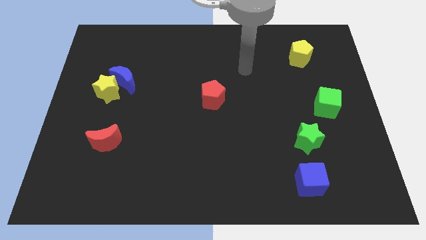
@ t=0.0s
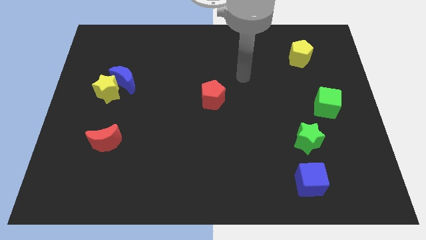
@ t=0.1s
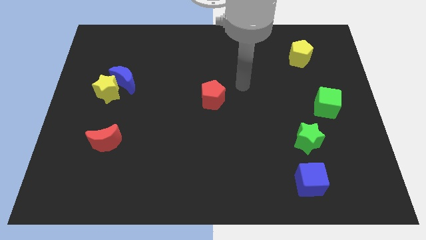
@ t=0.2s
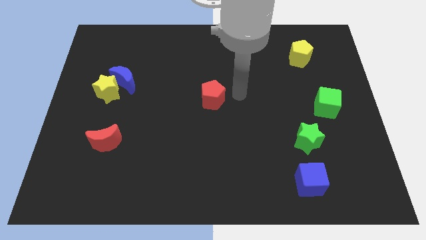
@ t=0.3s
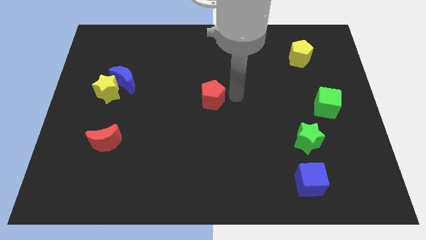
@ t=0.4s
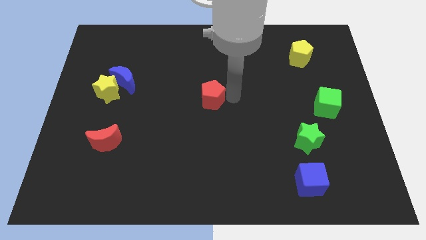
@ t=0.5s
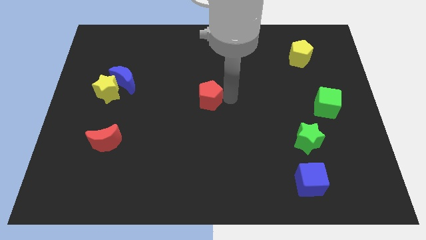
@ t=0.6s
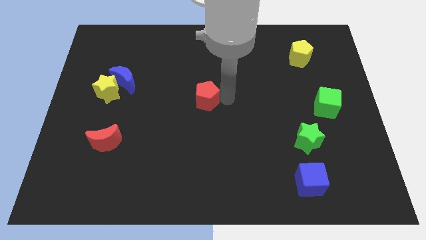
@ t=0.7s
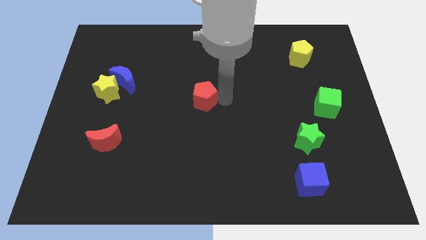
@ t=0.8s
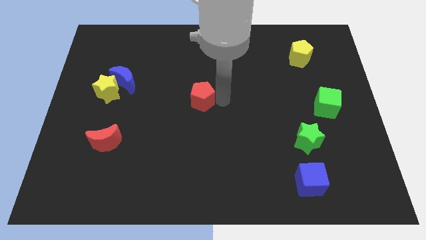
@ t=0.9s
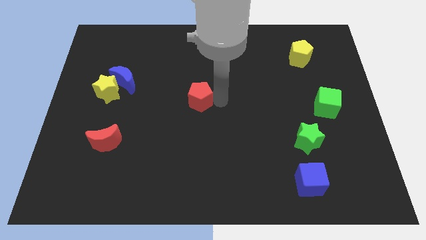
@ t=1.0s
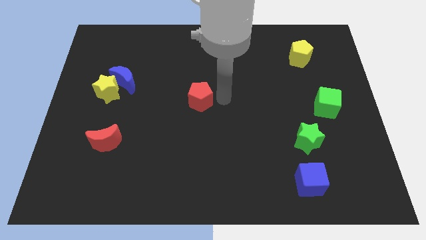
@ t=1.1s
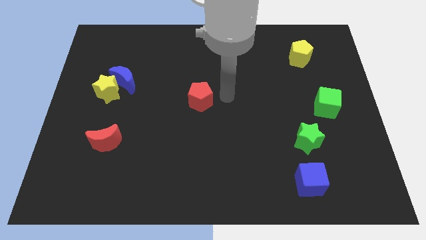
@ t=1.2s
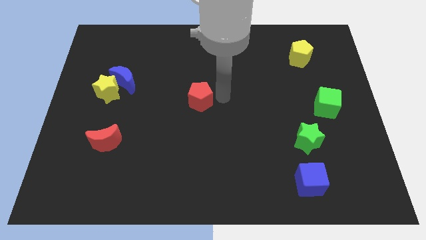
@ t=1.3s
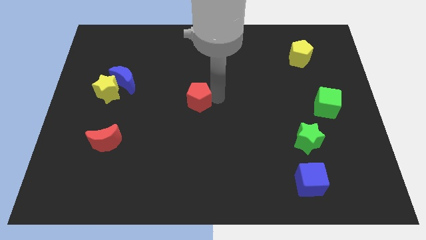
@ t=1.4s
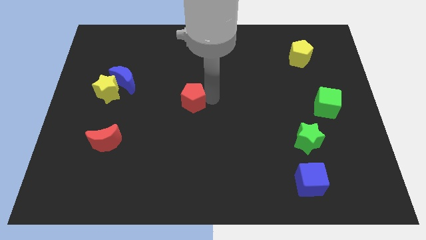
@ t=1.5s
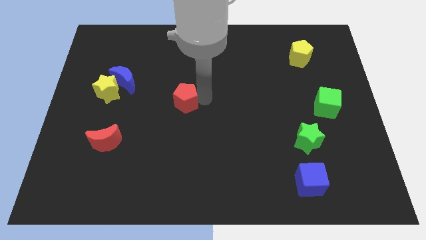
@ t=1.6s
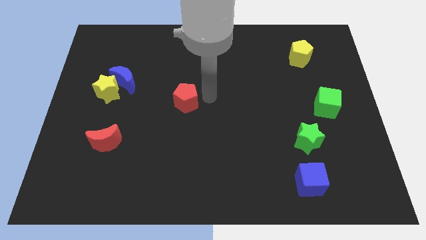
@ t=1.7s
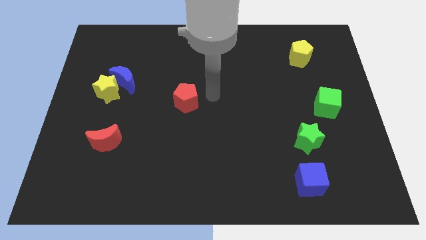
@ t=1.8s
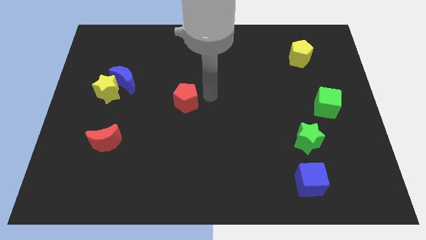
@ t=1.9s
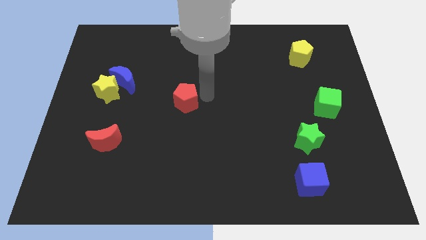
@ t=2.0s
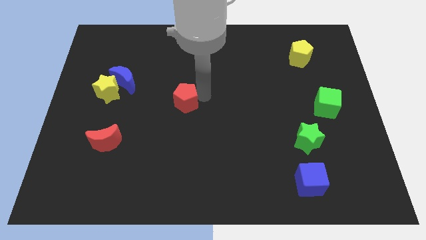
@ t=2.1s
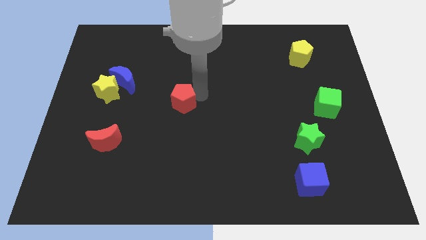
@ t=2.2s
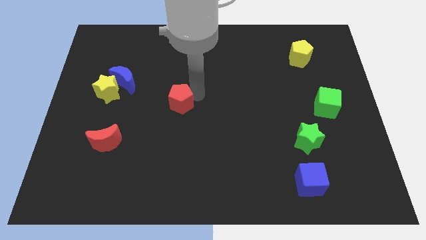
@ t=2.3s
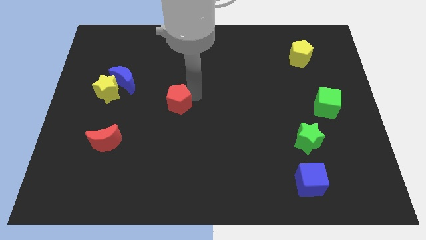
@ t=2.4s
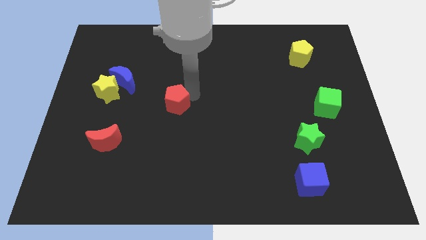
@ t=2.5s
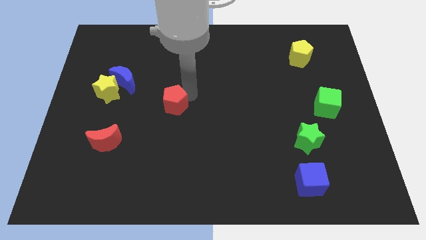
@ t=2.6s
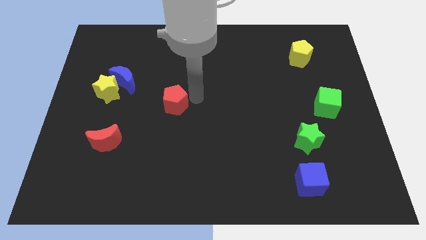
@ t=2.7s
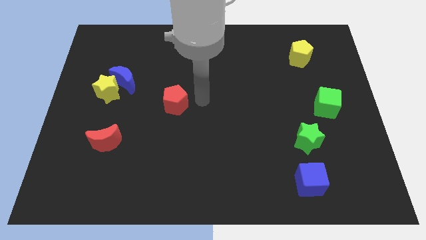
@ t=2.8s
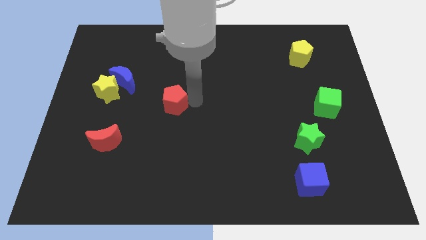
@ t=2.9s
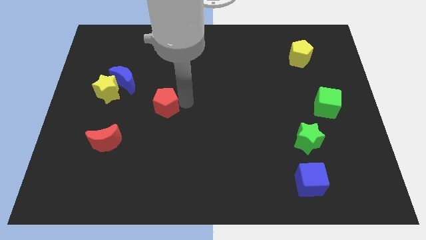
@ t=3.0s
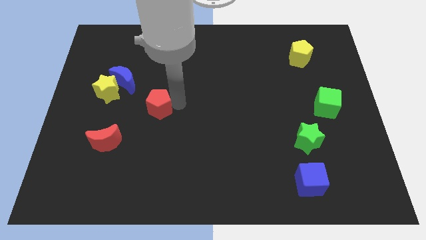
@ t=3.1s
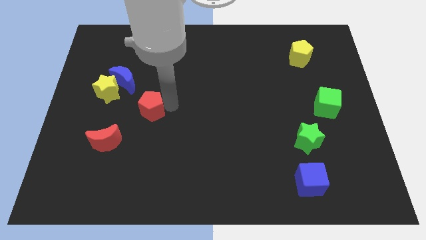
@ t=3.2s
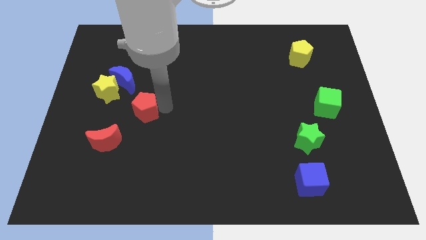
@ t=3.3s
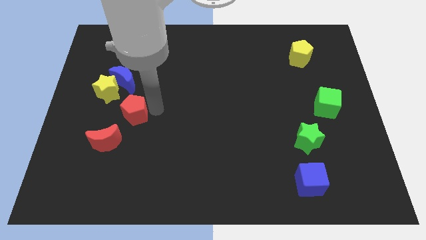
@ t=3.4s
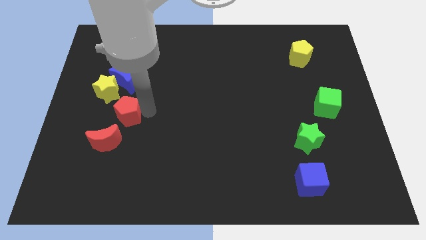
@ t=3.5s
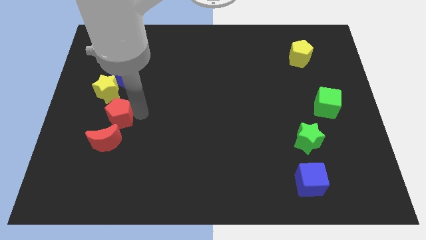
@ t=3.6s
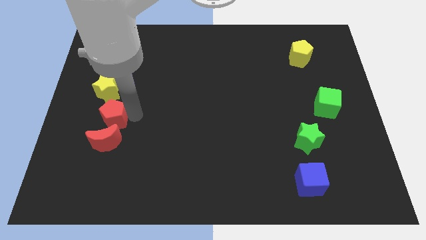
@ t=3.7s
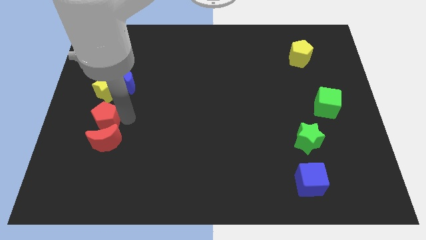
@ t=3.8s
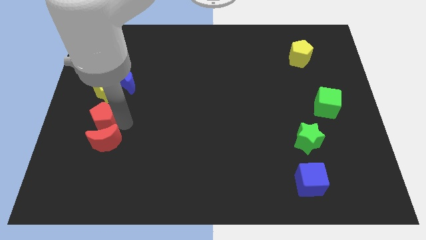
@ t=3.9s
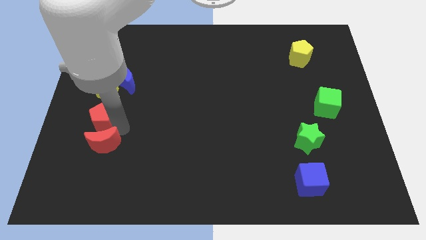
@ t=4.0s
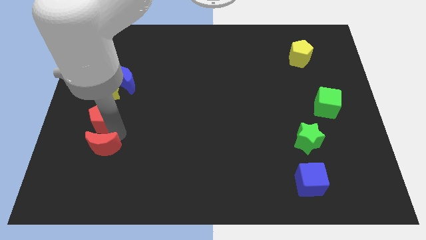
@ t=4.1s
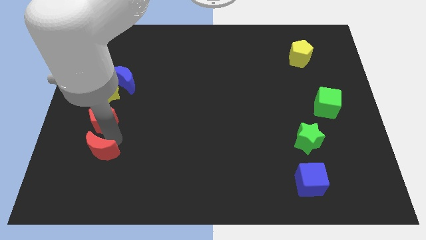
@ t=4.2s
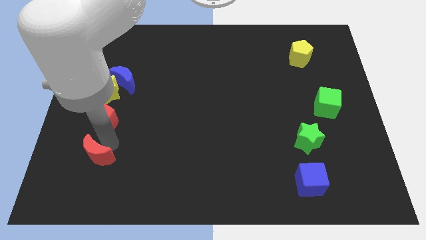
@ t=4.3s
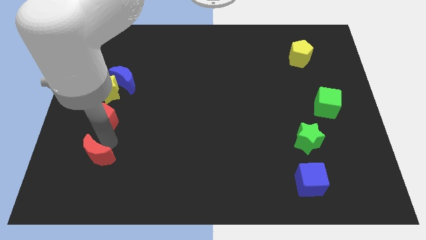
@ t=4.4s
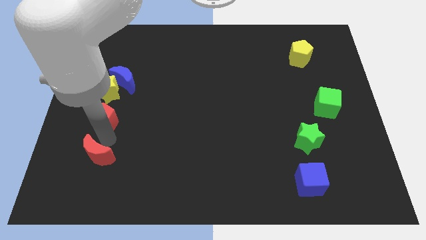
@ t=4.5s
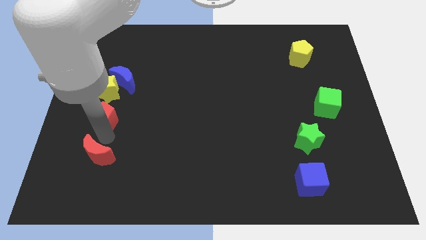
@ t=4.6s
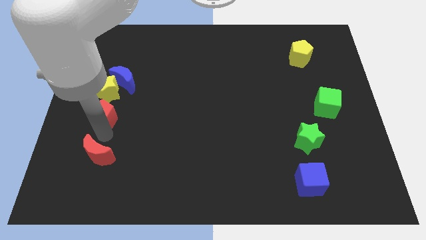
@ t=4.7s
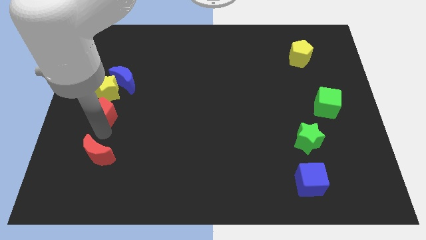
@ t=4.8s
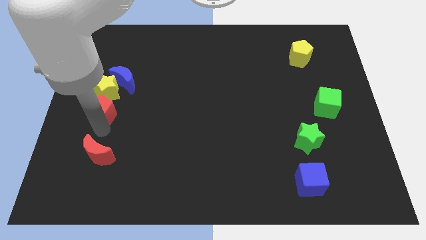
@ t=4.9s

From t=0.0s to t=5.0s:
move the red pentagon to the bottom left side of the blue moon

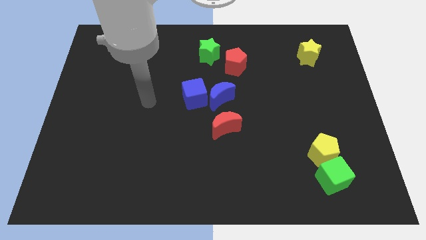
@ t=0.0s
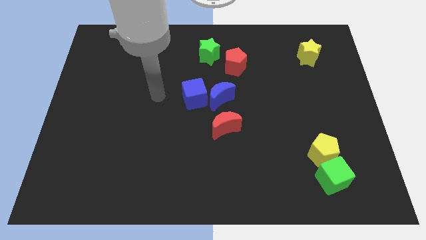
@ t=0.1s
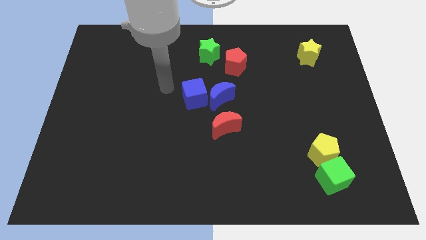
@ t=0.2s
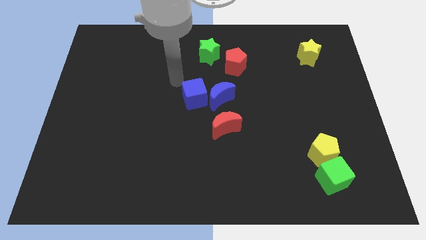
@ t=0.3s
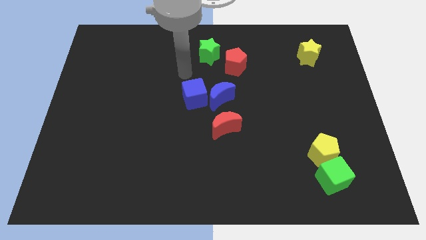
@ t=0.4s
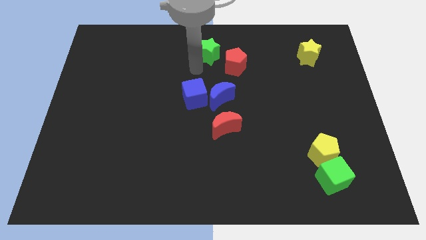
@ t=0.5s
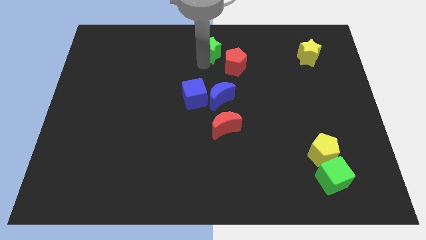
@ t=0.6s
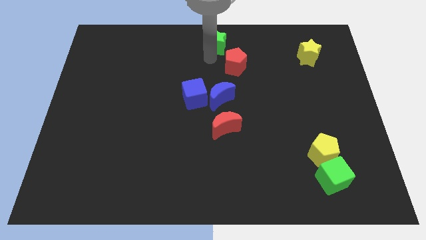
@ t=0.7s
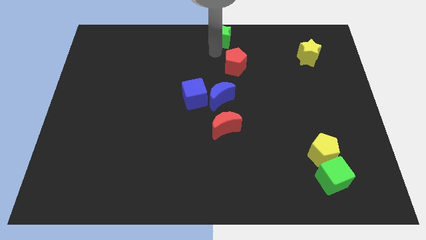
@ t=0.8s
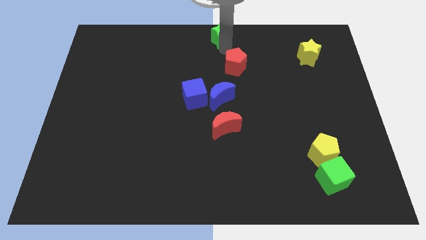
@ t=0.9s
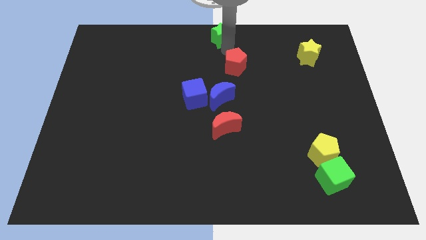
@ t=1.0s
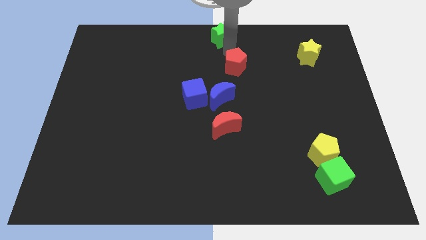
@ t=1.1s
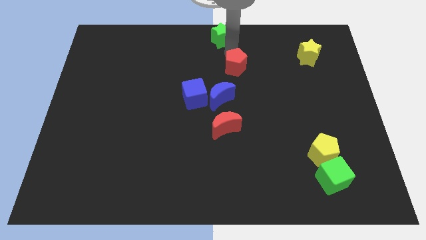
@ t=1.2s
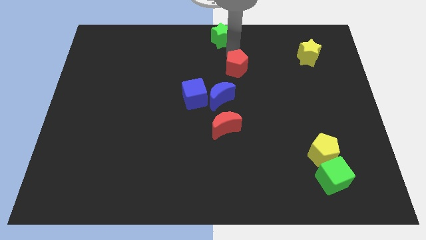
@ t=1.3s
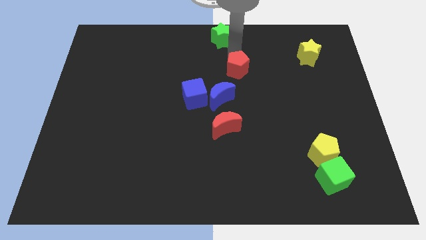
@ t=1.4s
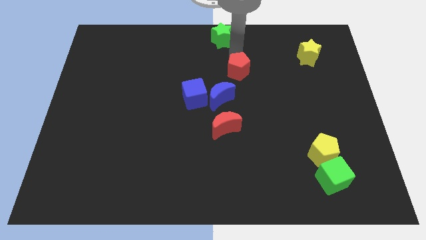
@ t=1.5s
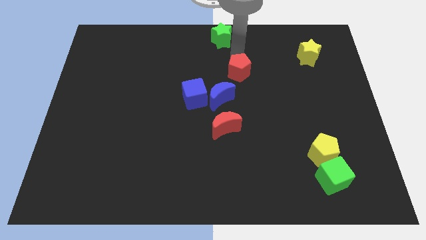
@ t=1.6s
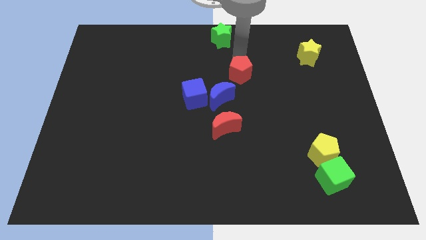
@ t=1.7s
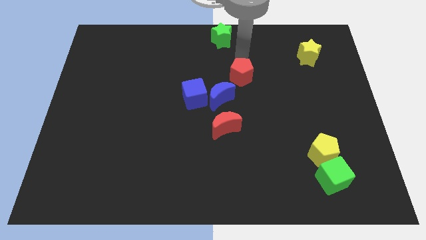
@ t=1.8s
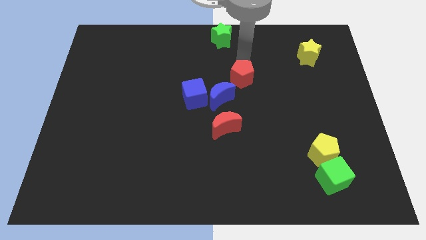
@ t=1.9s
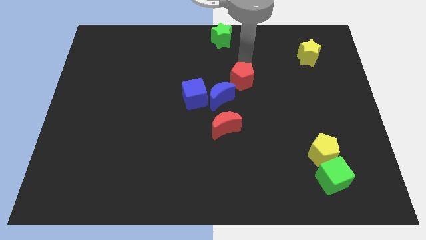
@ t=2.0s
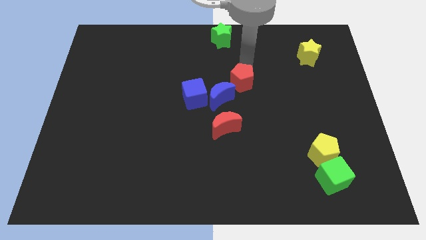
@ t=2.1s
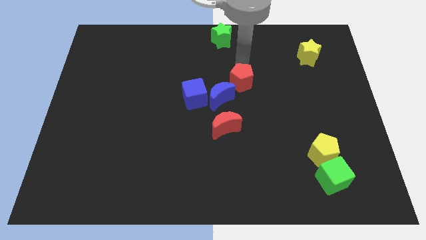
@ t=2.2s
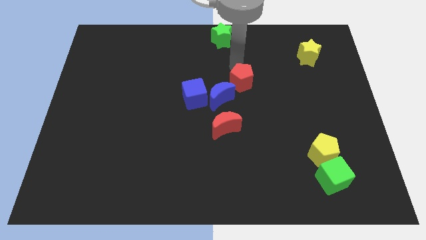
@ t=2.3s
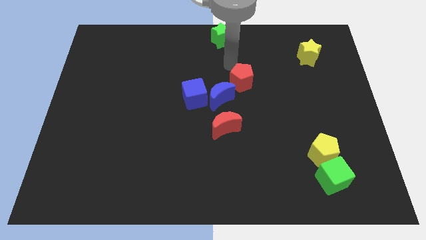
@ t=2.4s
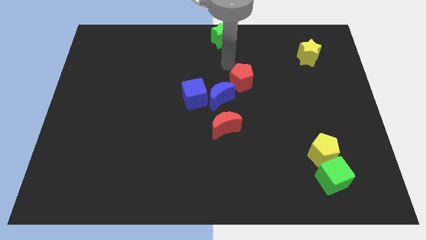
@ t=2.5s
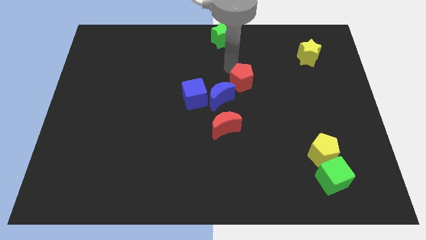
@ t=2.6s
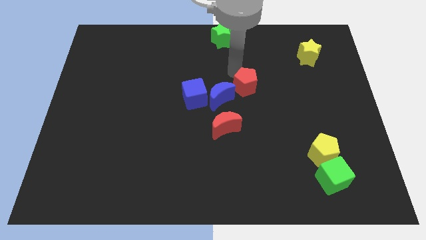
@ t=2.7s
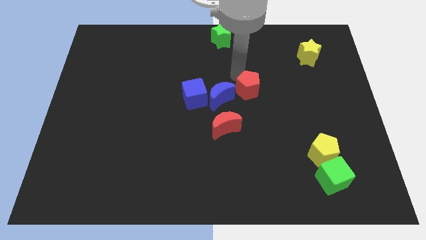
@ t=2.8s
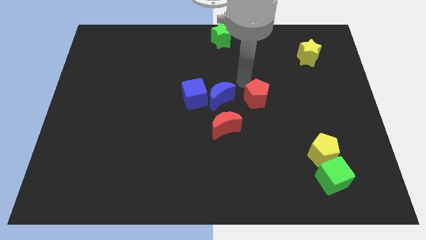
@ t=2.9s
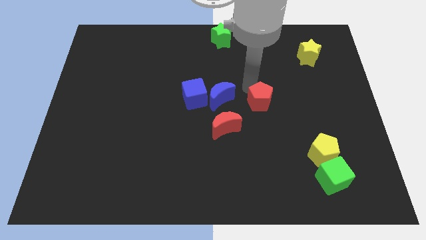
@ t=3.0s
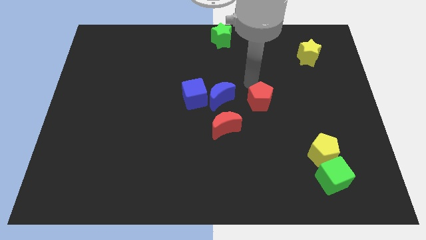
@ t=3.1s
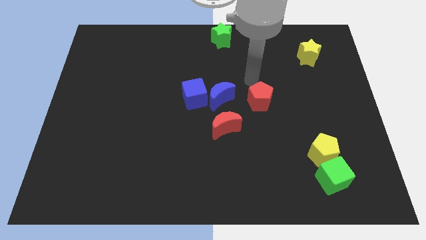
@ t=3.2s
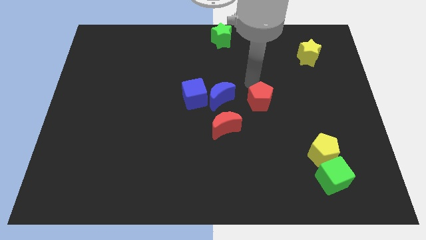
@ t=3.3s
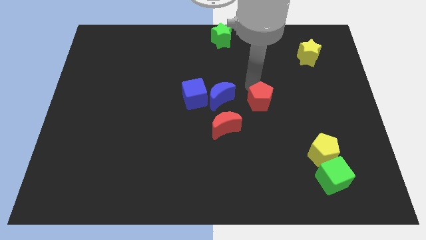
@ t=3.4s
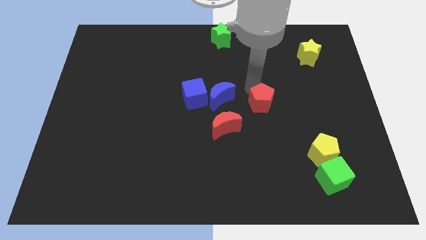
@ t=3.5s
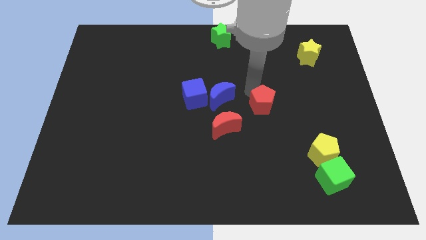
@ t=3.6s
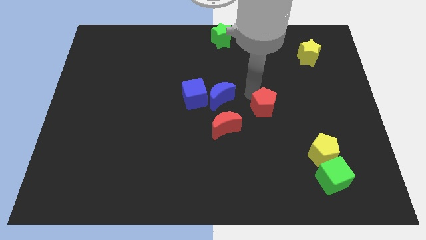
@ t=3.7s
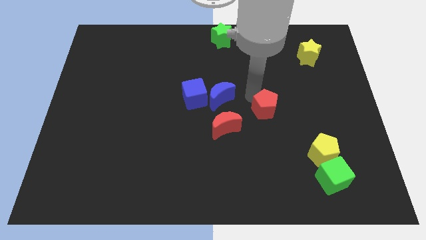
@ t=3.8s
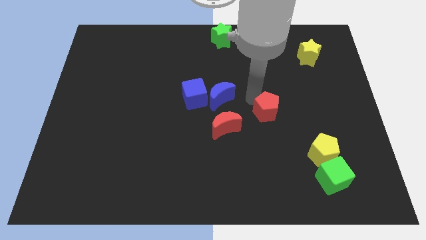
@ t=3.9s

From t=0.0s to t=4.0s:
slide the red pentagon just right of the red moon
